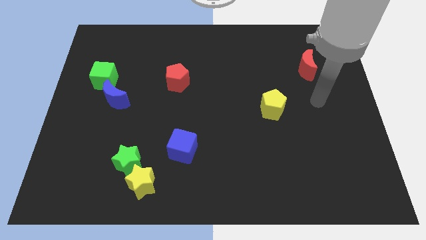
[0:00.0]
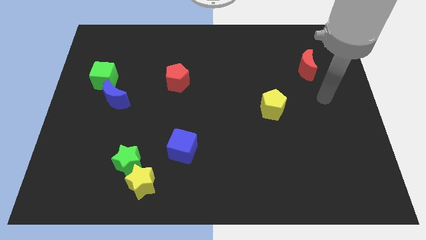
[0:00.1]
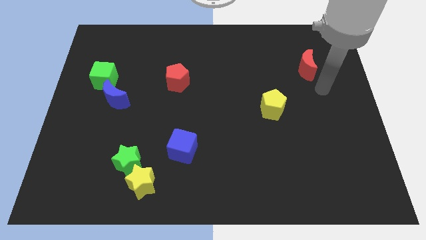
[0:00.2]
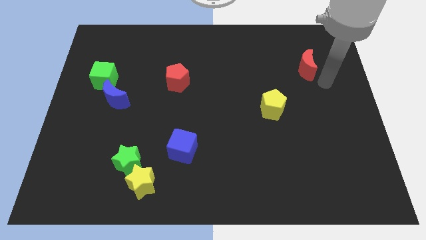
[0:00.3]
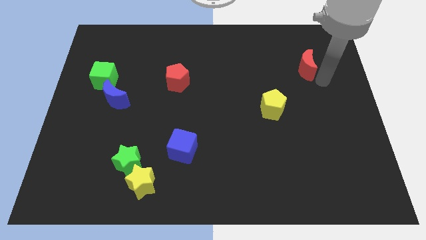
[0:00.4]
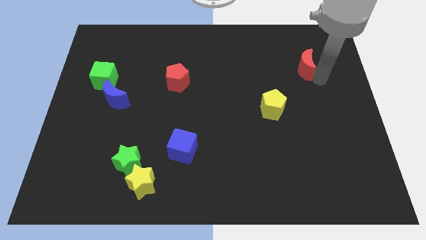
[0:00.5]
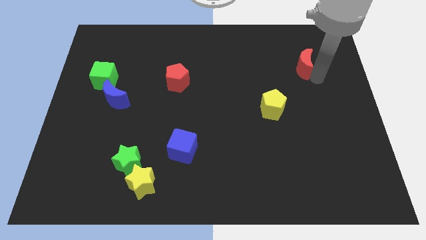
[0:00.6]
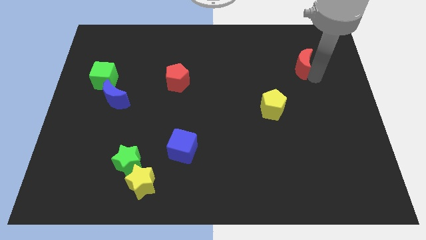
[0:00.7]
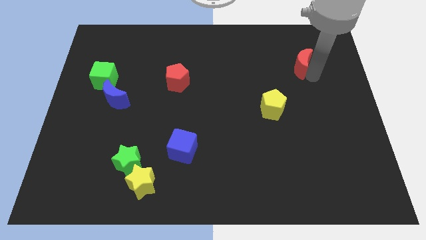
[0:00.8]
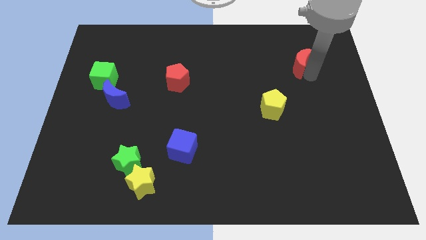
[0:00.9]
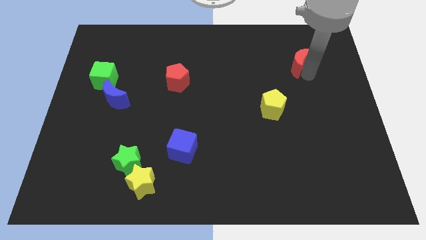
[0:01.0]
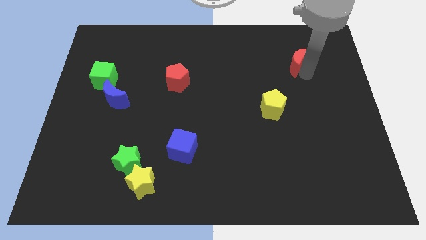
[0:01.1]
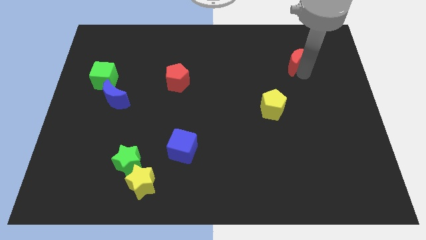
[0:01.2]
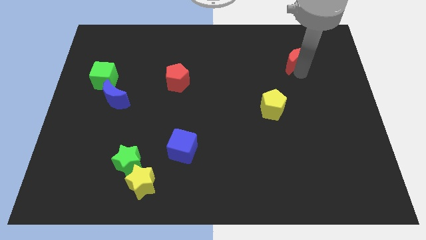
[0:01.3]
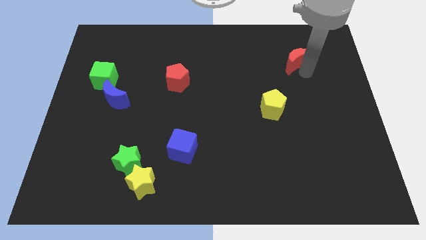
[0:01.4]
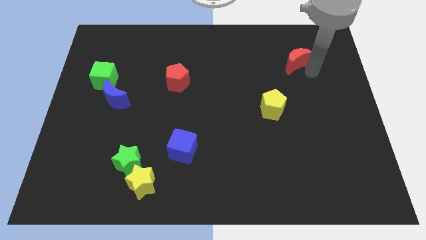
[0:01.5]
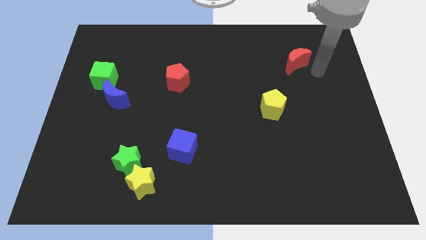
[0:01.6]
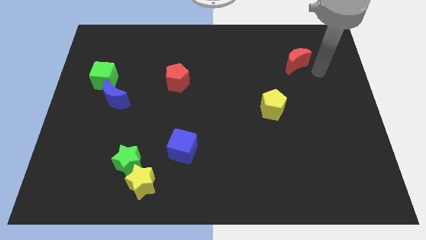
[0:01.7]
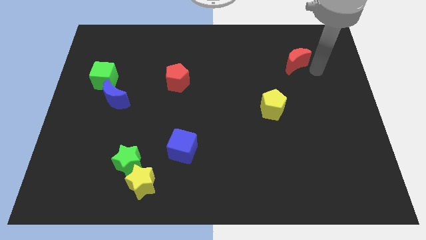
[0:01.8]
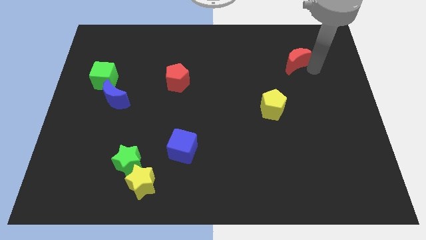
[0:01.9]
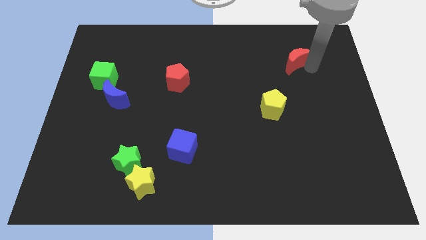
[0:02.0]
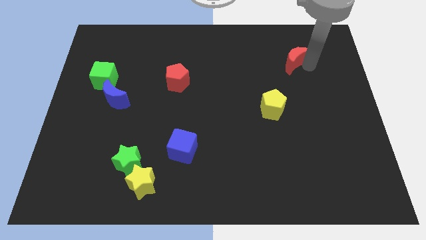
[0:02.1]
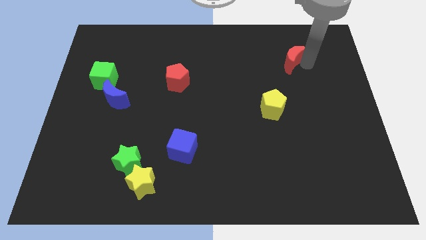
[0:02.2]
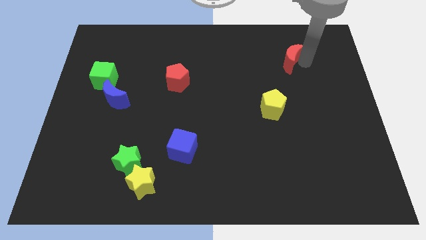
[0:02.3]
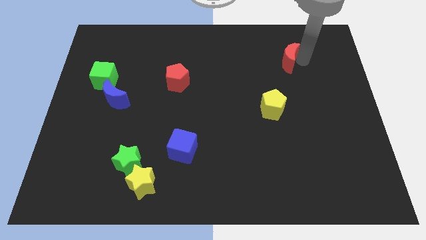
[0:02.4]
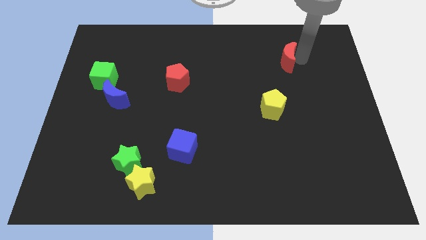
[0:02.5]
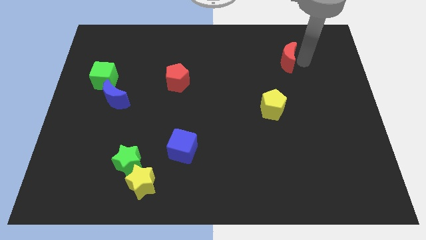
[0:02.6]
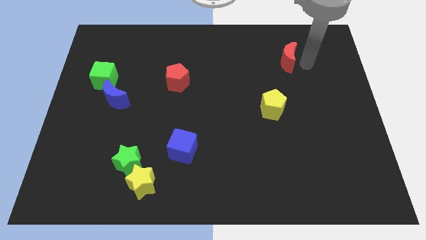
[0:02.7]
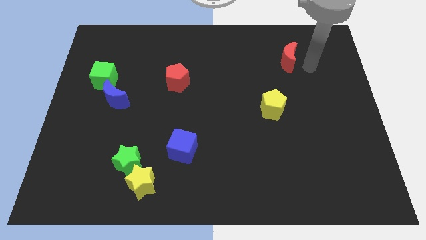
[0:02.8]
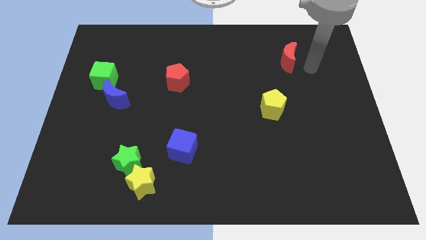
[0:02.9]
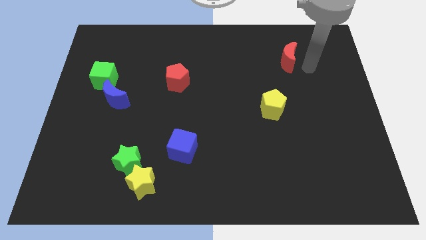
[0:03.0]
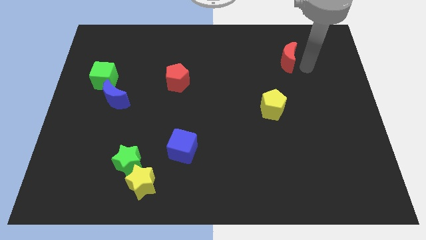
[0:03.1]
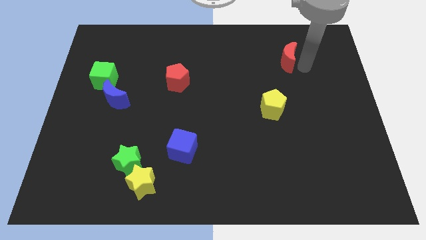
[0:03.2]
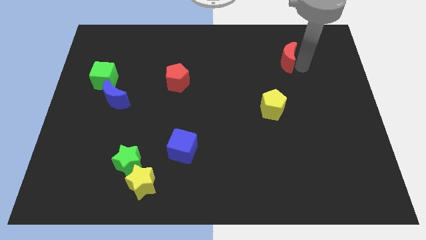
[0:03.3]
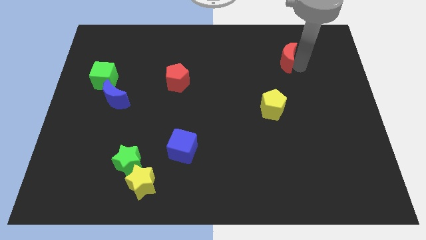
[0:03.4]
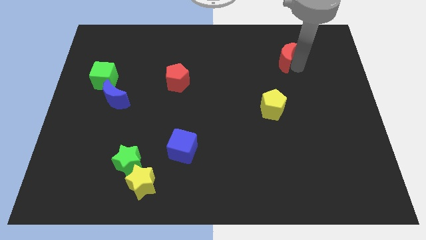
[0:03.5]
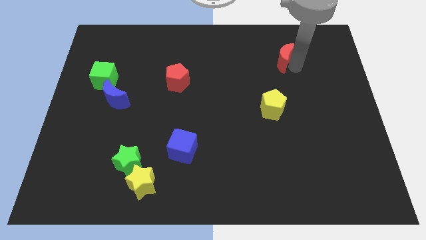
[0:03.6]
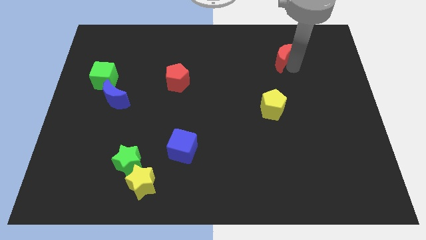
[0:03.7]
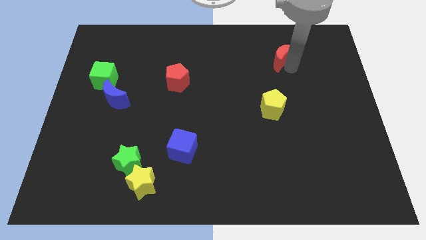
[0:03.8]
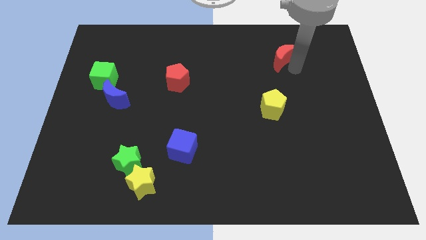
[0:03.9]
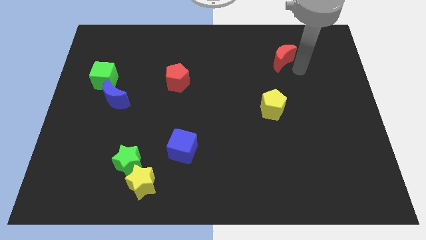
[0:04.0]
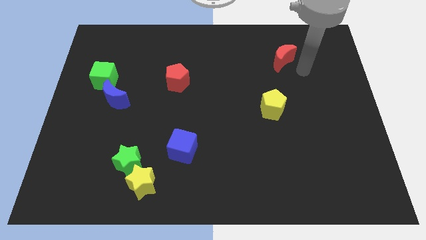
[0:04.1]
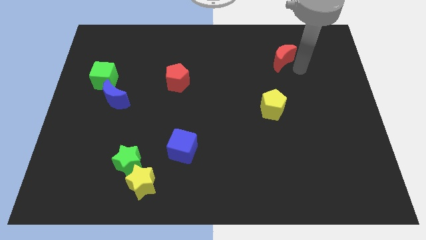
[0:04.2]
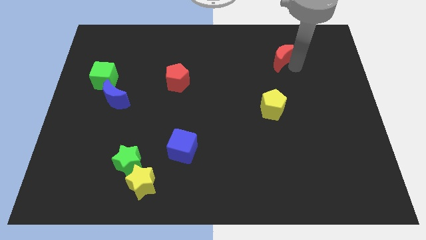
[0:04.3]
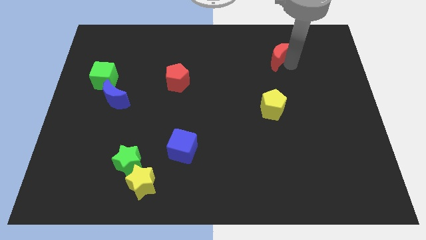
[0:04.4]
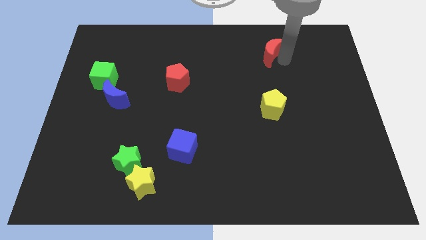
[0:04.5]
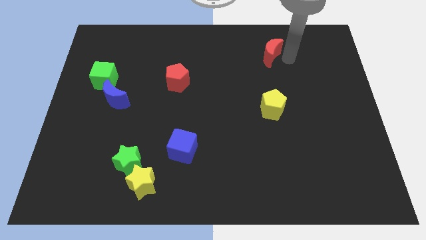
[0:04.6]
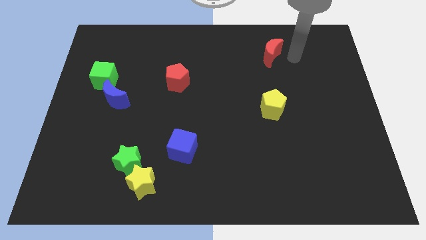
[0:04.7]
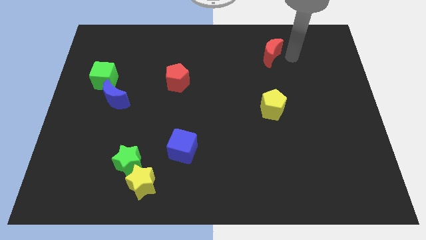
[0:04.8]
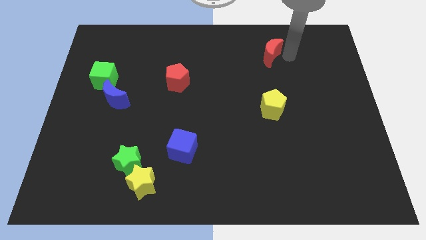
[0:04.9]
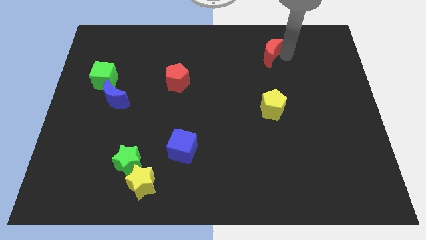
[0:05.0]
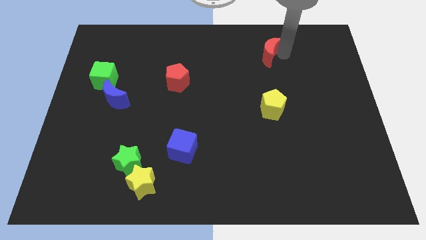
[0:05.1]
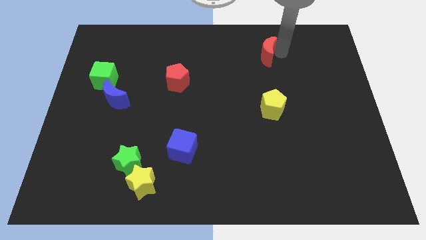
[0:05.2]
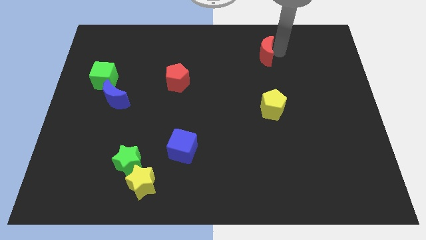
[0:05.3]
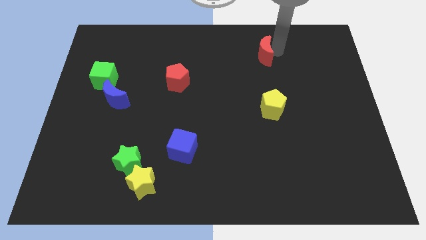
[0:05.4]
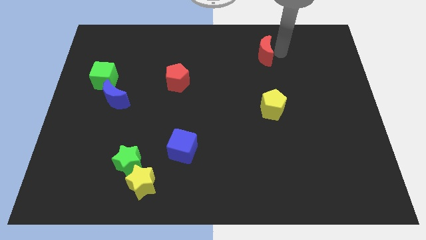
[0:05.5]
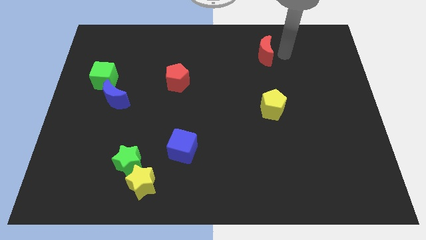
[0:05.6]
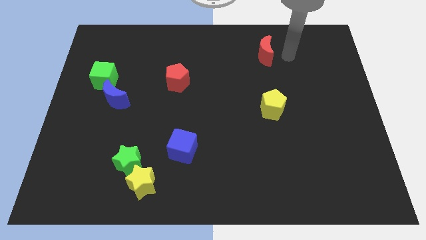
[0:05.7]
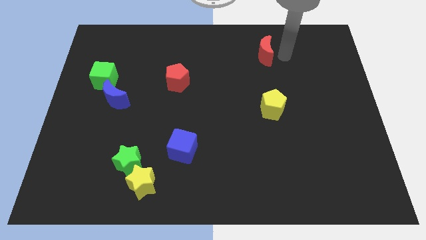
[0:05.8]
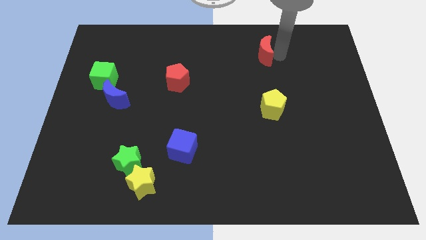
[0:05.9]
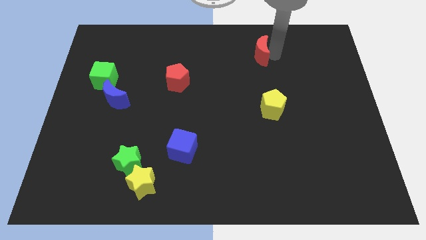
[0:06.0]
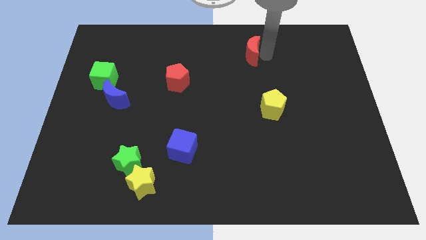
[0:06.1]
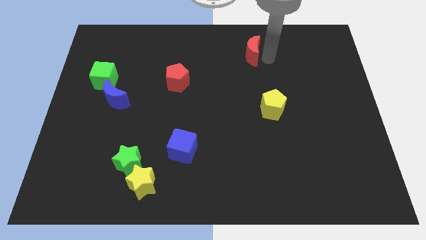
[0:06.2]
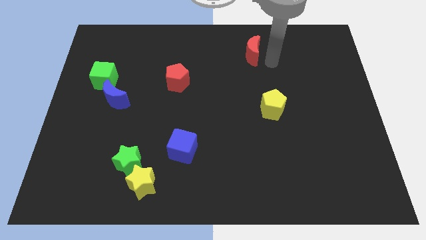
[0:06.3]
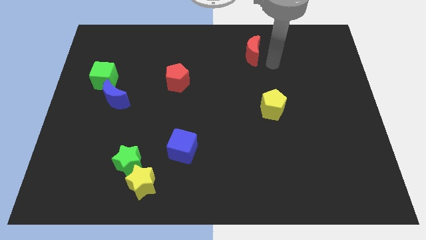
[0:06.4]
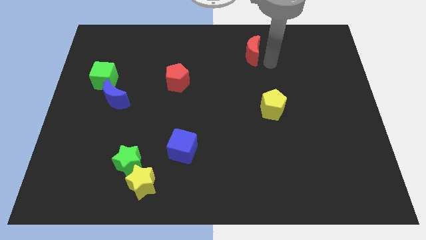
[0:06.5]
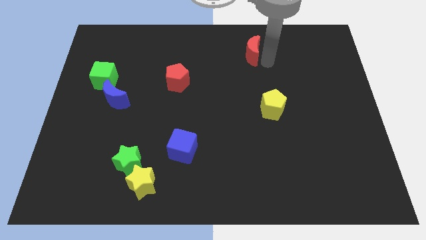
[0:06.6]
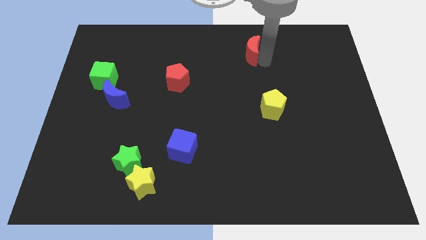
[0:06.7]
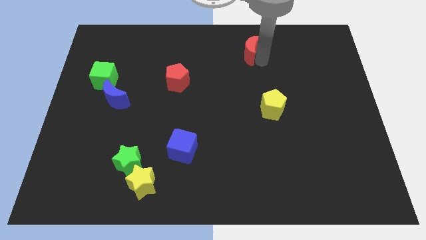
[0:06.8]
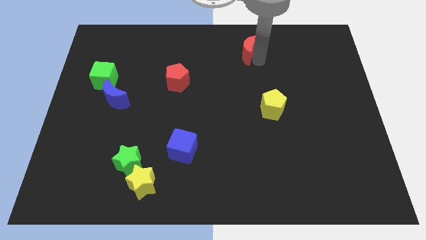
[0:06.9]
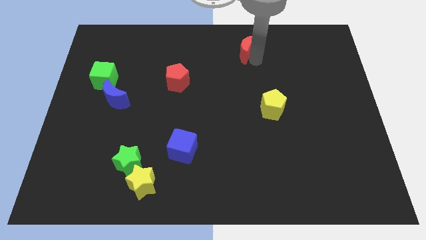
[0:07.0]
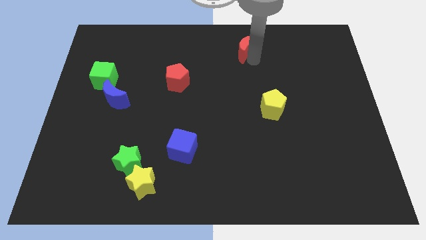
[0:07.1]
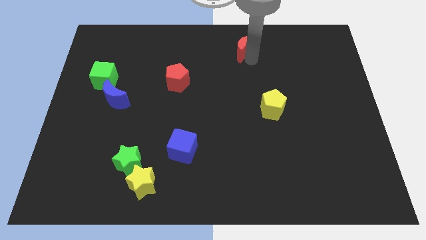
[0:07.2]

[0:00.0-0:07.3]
slide the red moon to the top
